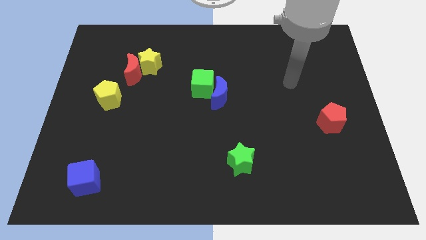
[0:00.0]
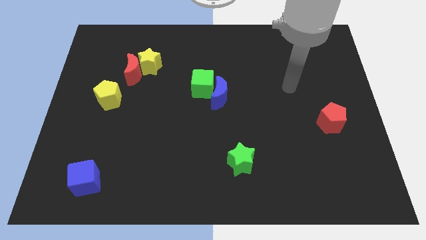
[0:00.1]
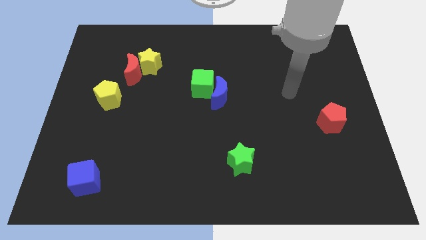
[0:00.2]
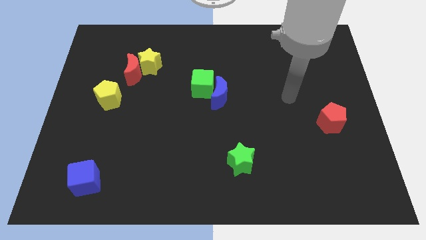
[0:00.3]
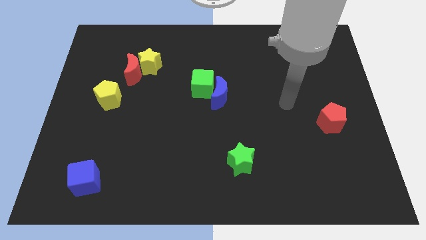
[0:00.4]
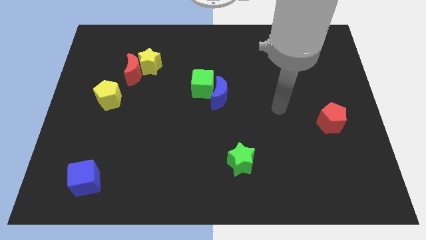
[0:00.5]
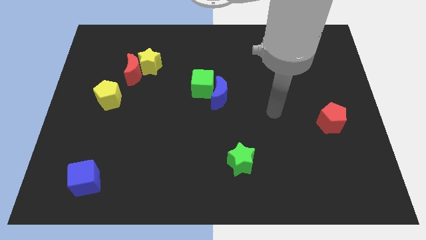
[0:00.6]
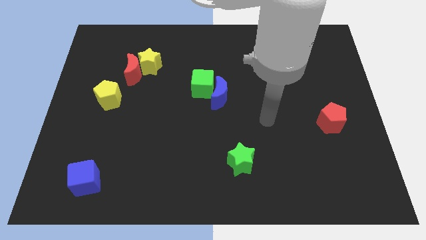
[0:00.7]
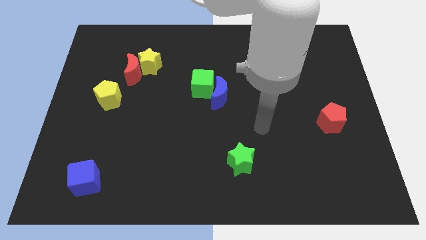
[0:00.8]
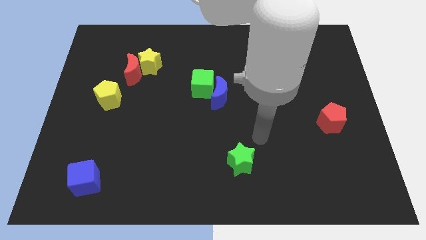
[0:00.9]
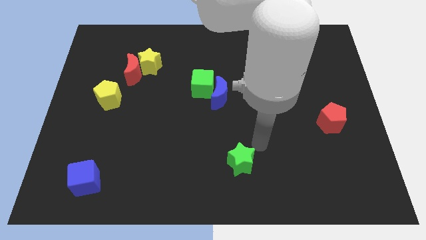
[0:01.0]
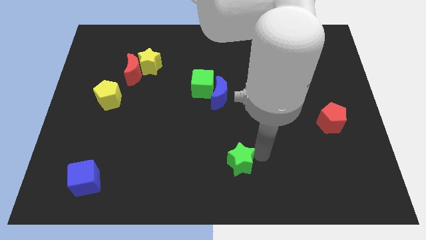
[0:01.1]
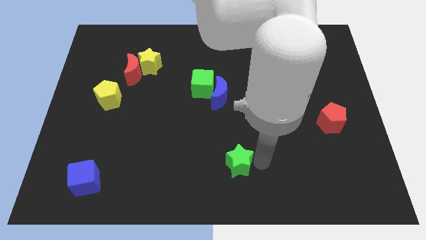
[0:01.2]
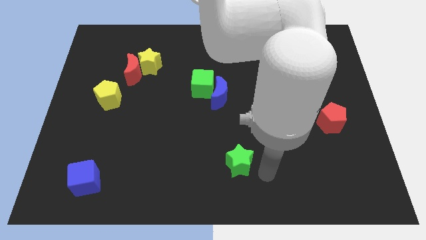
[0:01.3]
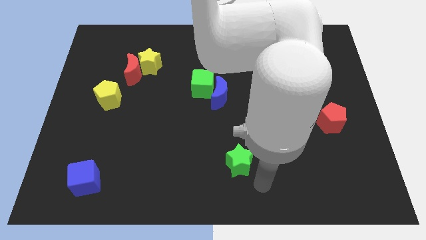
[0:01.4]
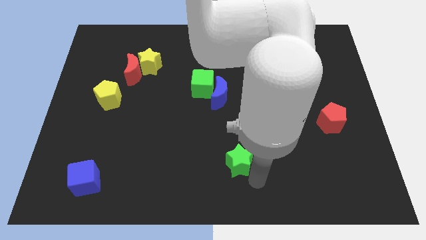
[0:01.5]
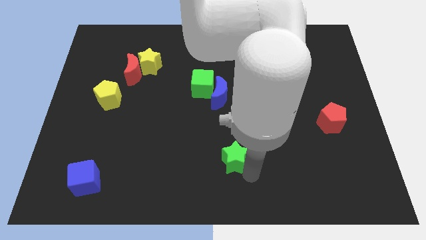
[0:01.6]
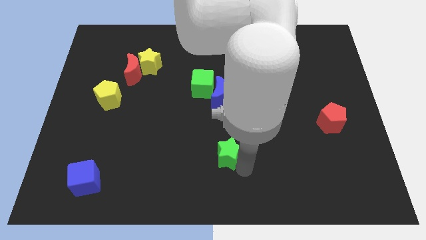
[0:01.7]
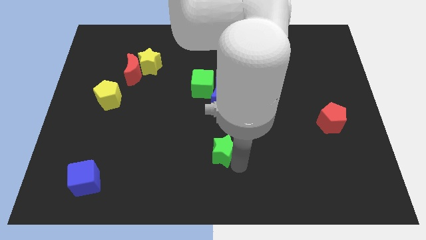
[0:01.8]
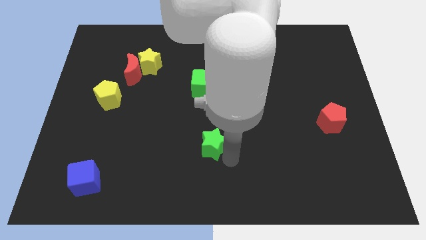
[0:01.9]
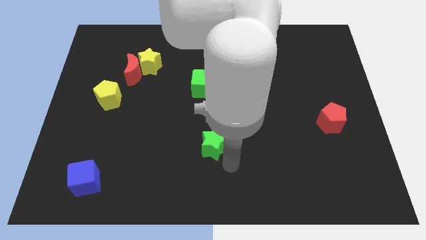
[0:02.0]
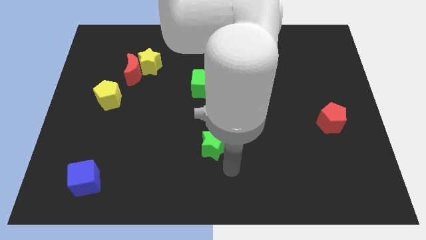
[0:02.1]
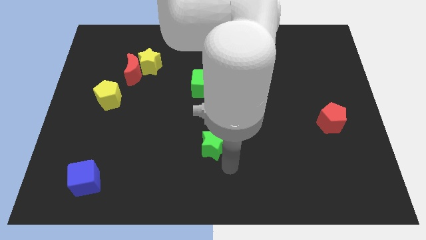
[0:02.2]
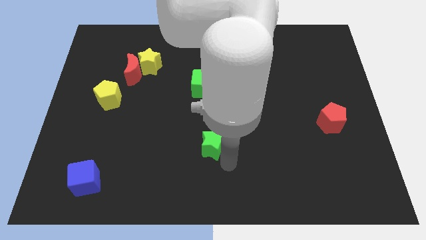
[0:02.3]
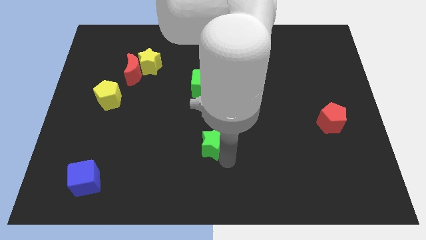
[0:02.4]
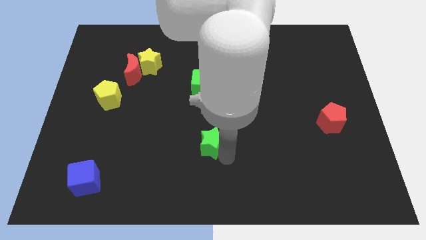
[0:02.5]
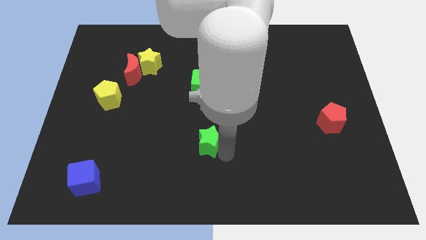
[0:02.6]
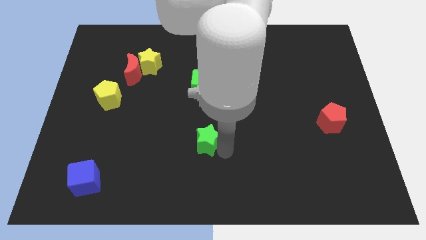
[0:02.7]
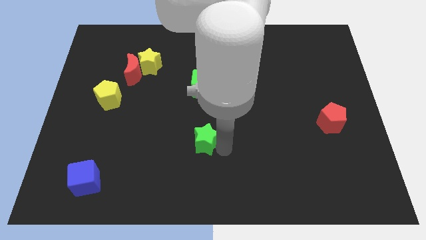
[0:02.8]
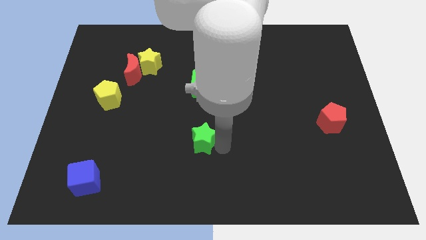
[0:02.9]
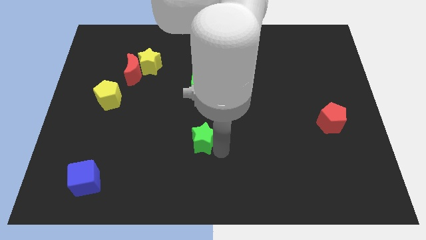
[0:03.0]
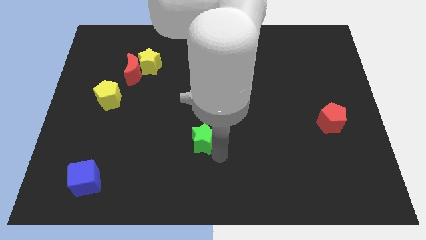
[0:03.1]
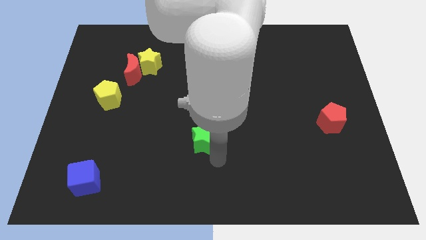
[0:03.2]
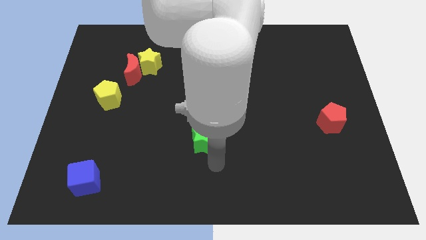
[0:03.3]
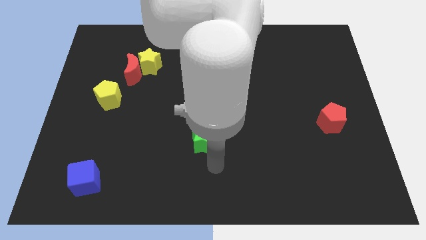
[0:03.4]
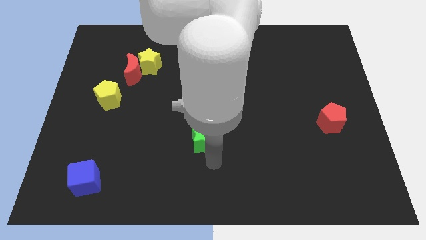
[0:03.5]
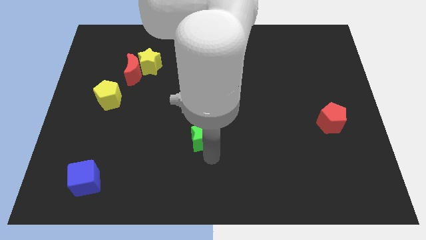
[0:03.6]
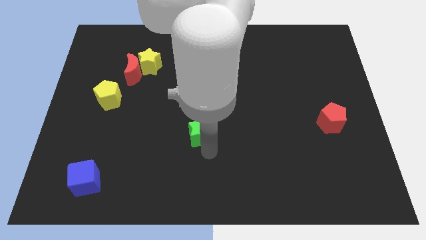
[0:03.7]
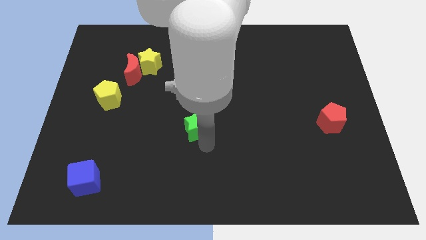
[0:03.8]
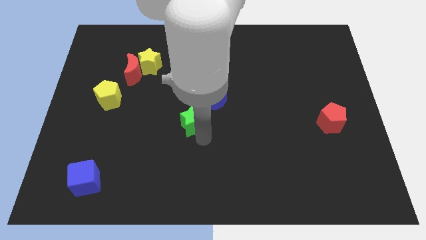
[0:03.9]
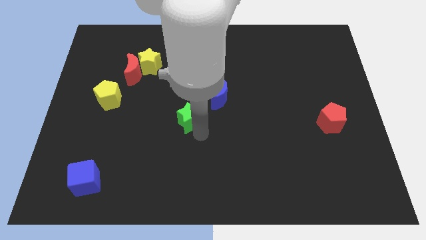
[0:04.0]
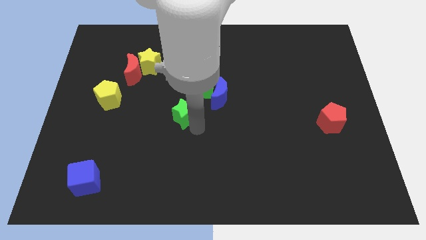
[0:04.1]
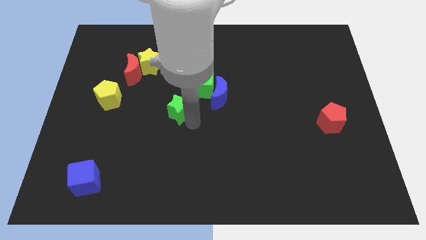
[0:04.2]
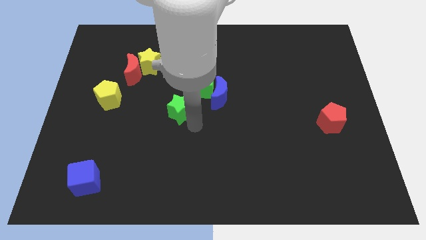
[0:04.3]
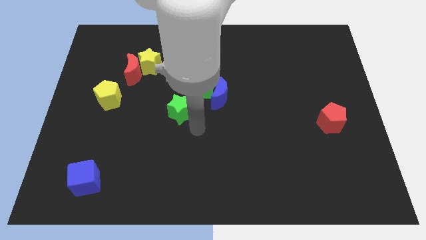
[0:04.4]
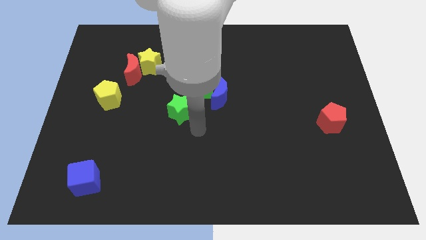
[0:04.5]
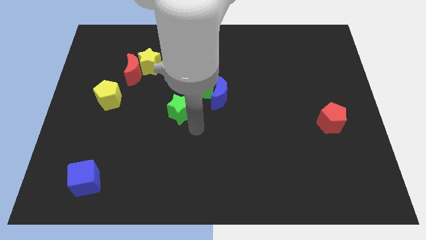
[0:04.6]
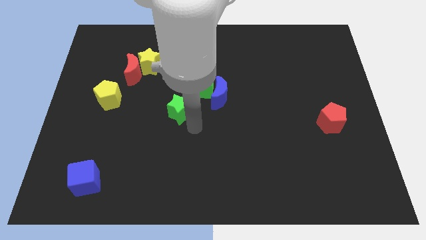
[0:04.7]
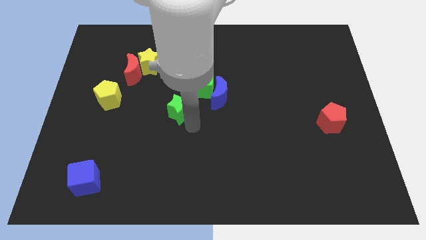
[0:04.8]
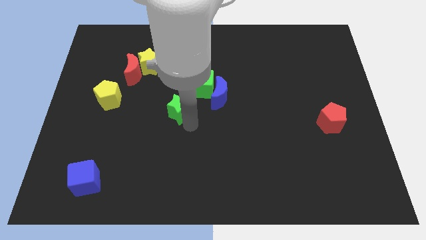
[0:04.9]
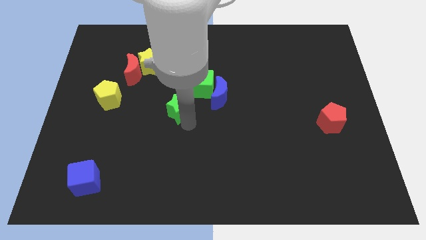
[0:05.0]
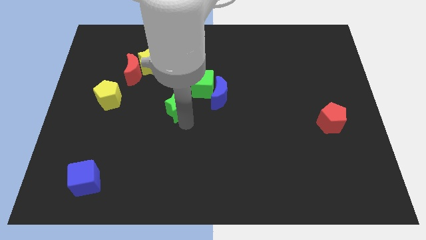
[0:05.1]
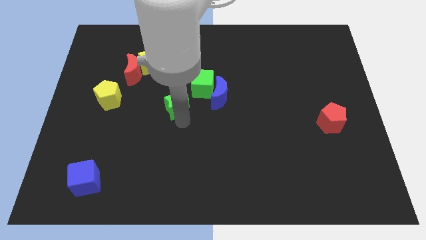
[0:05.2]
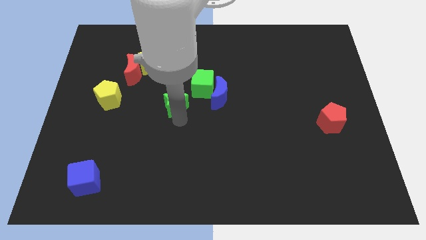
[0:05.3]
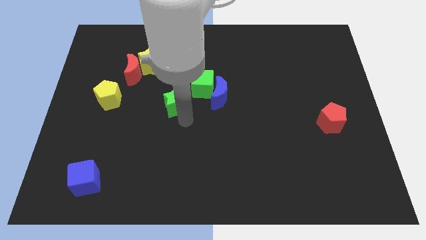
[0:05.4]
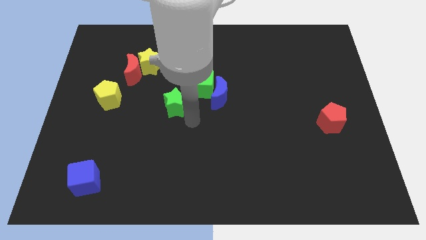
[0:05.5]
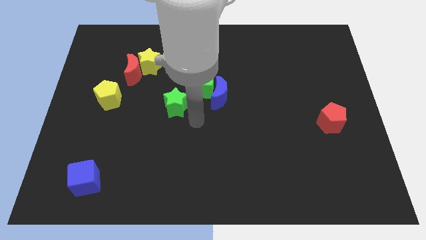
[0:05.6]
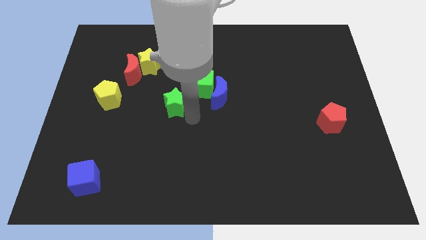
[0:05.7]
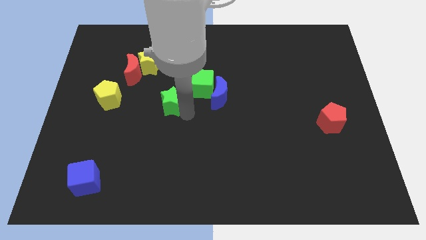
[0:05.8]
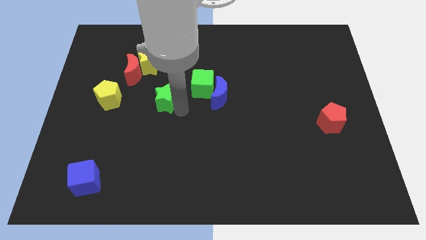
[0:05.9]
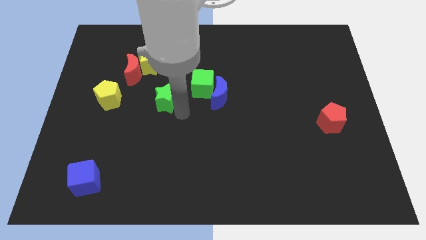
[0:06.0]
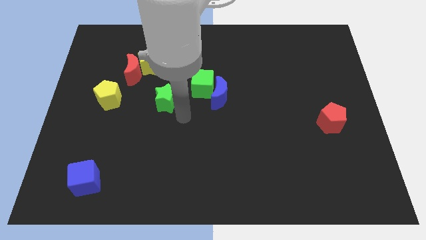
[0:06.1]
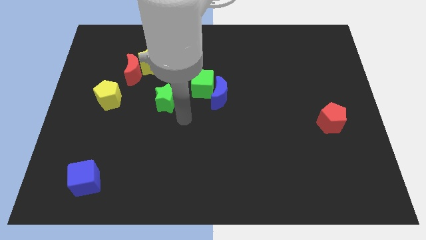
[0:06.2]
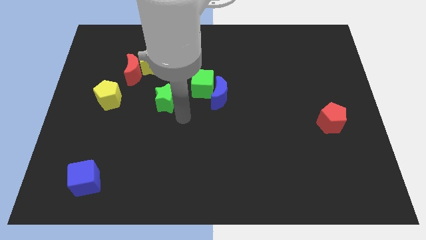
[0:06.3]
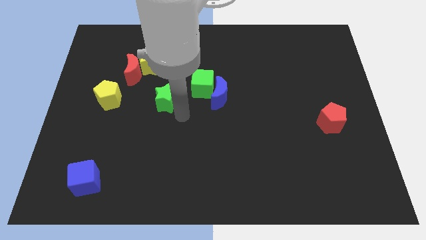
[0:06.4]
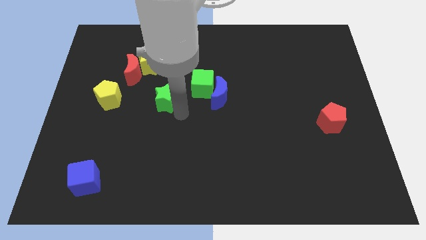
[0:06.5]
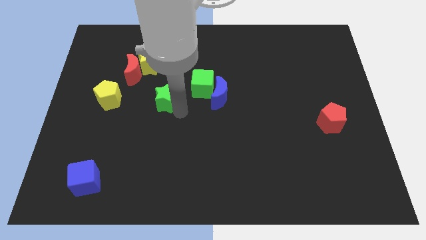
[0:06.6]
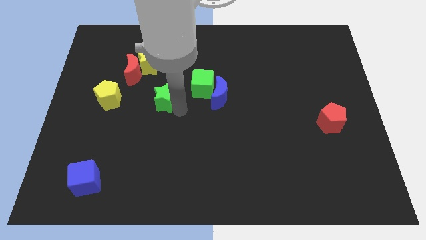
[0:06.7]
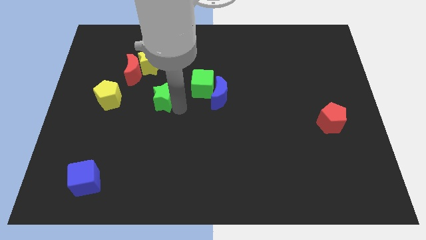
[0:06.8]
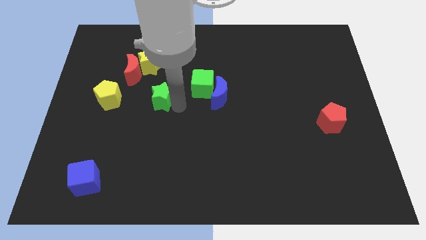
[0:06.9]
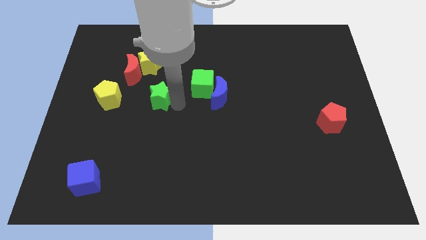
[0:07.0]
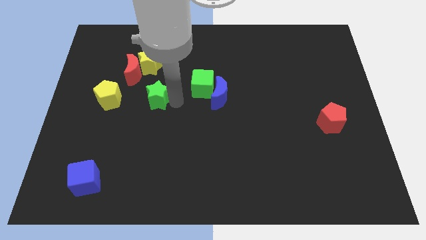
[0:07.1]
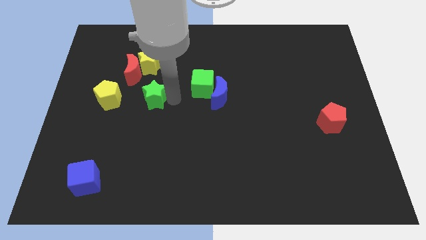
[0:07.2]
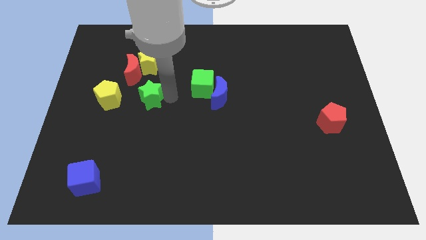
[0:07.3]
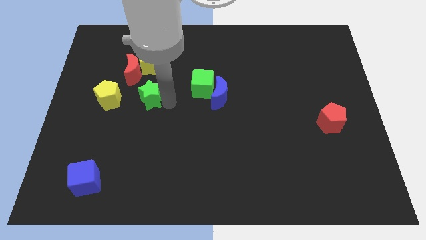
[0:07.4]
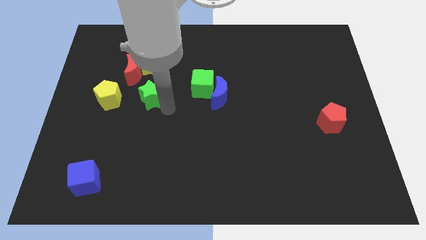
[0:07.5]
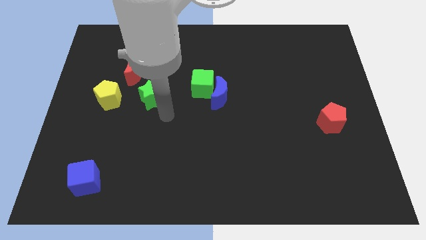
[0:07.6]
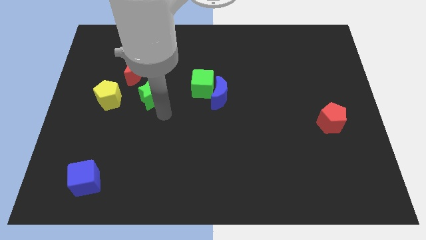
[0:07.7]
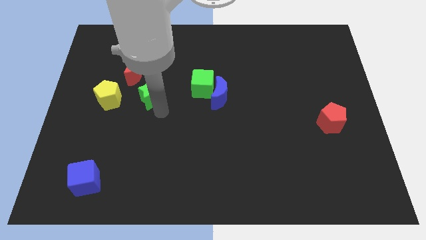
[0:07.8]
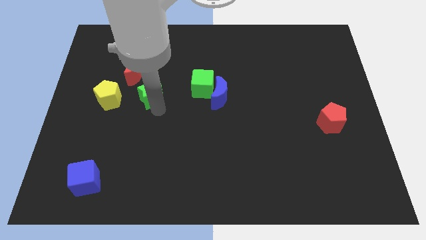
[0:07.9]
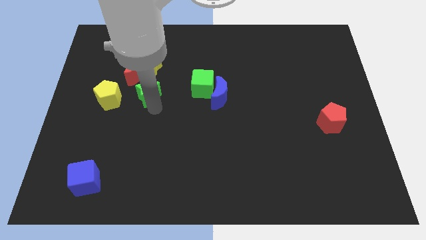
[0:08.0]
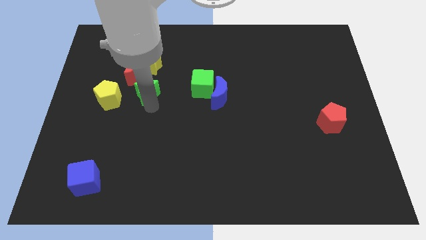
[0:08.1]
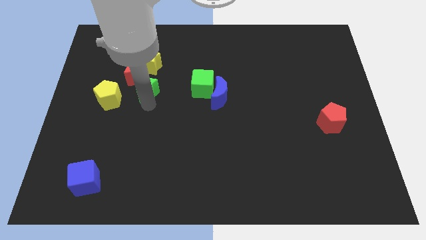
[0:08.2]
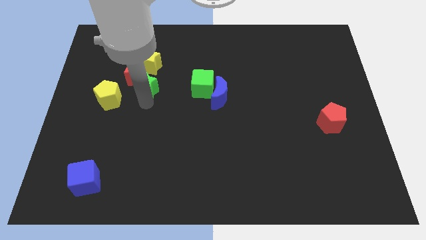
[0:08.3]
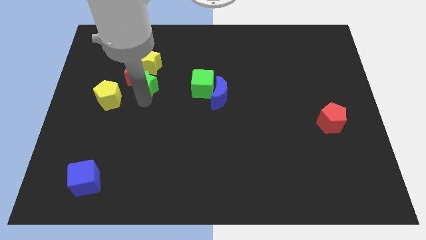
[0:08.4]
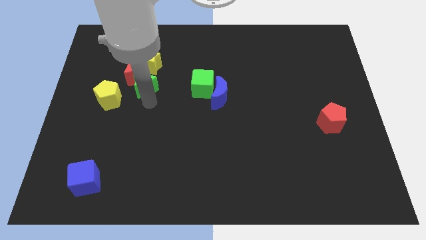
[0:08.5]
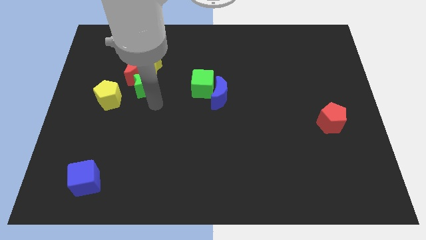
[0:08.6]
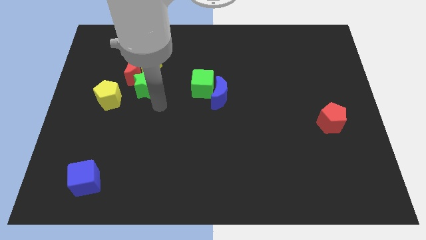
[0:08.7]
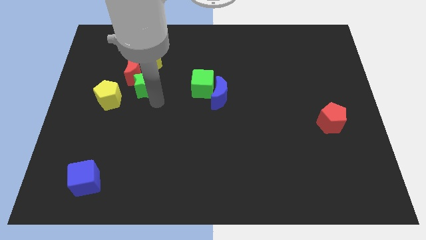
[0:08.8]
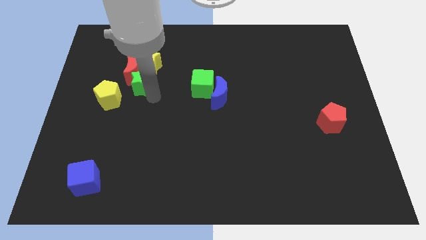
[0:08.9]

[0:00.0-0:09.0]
put the green star next to the red moon
